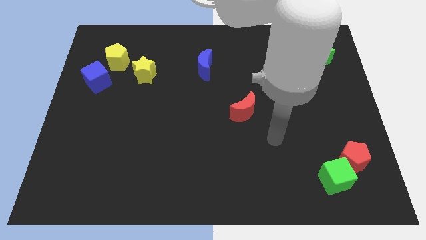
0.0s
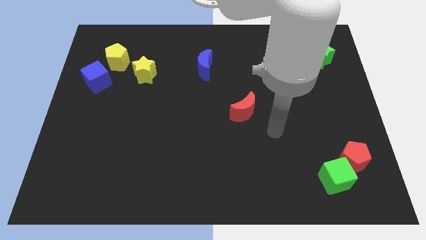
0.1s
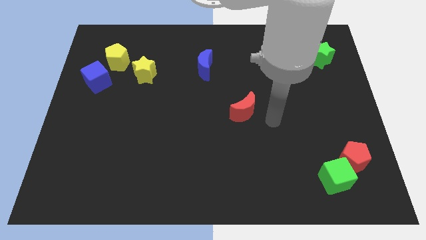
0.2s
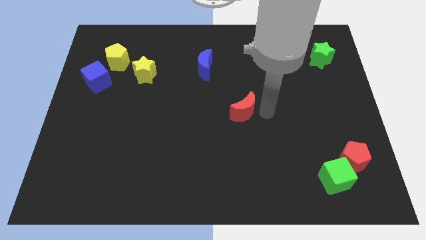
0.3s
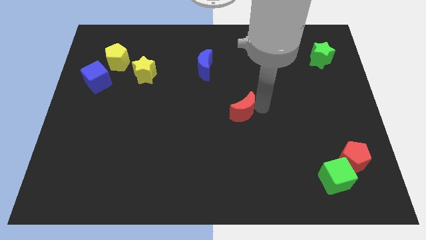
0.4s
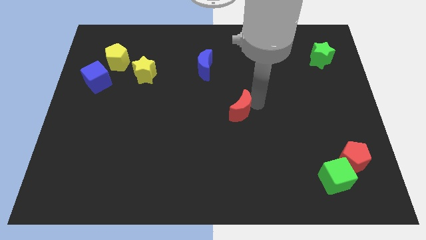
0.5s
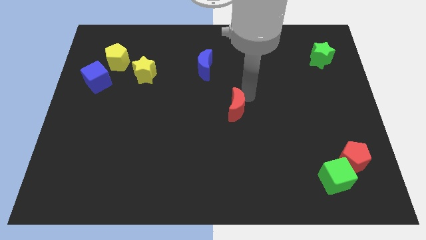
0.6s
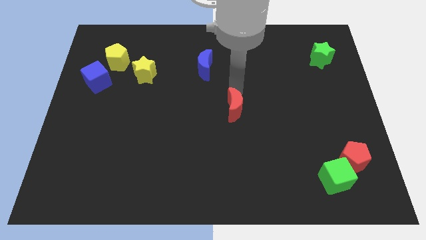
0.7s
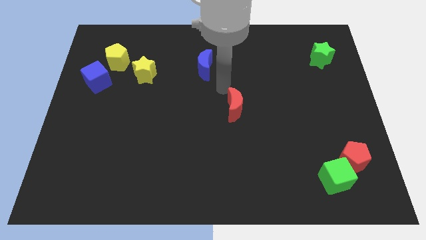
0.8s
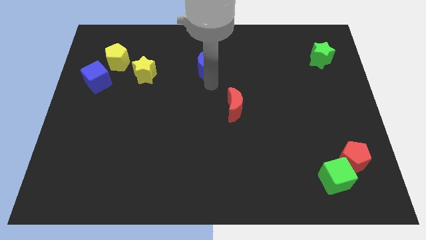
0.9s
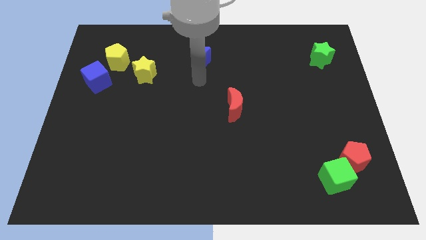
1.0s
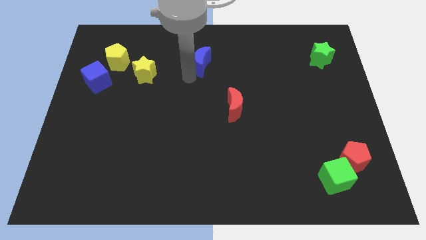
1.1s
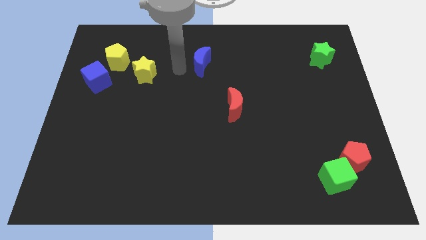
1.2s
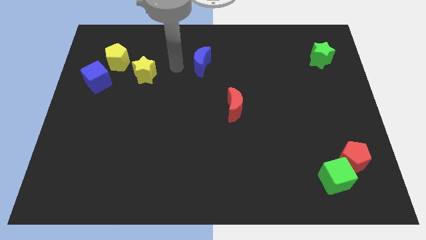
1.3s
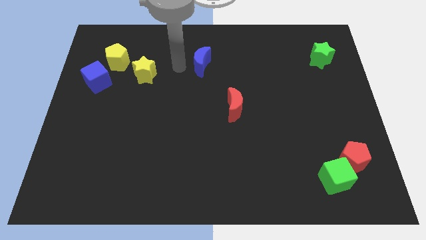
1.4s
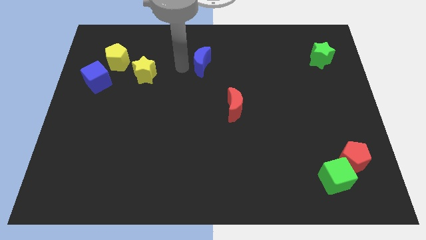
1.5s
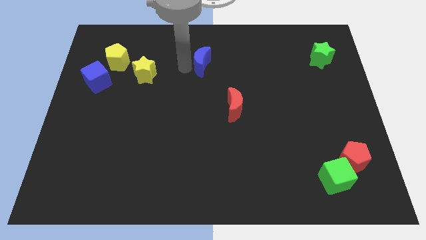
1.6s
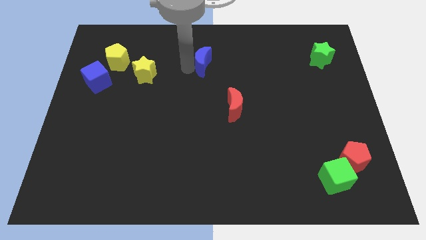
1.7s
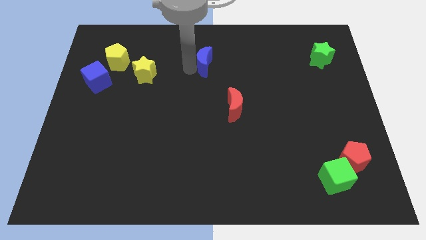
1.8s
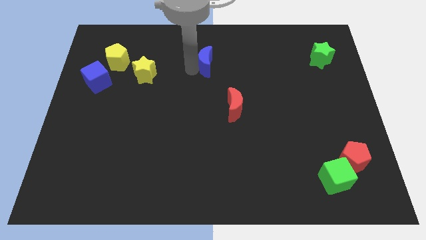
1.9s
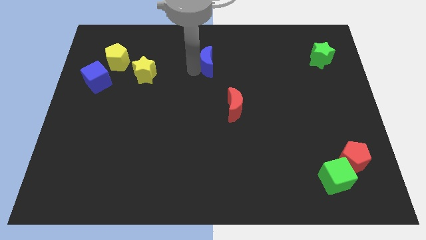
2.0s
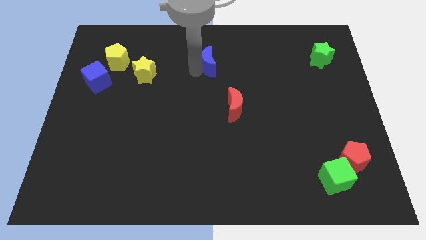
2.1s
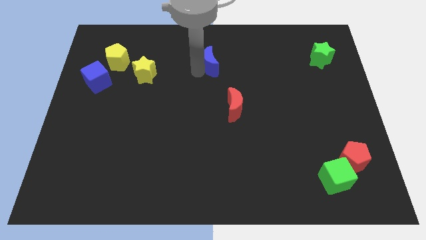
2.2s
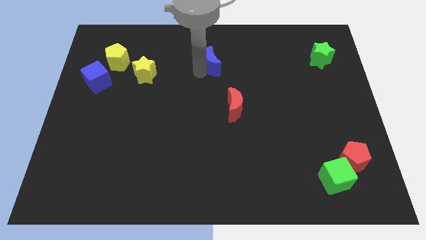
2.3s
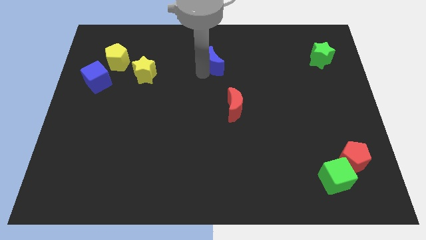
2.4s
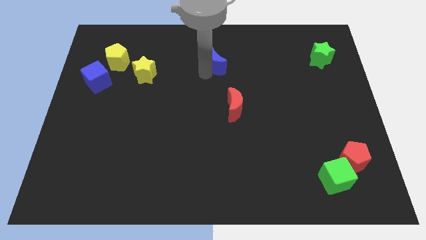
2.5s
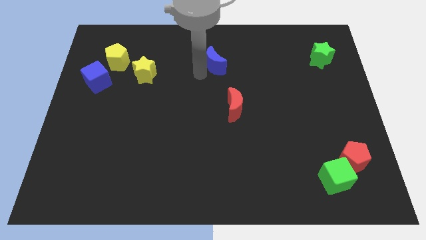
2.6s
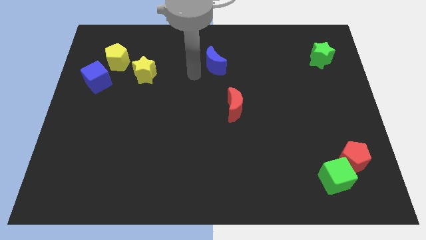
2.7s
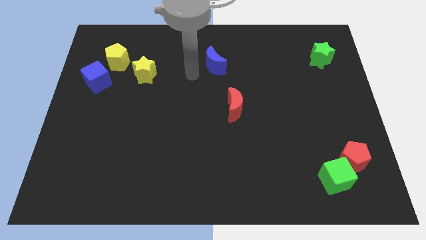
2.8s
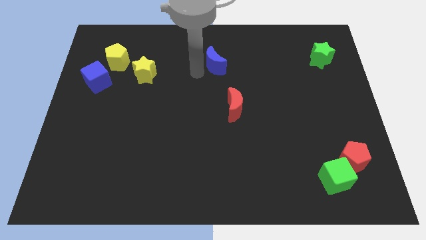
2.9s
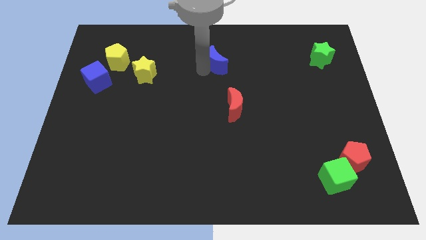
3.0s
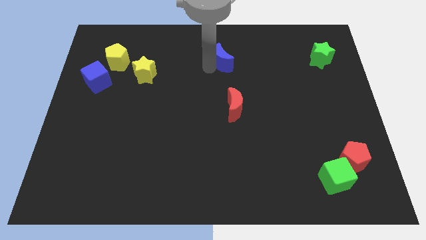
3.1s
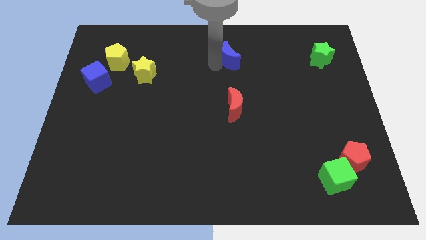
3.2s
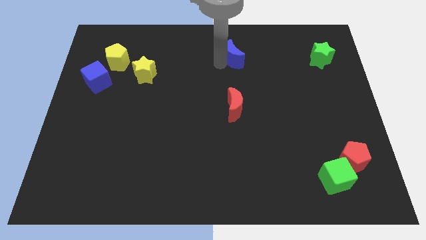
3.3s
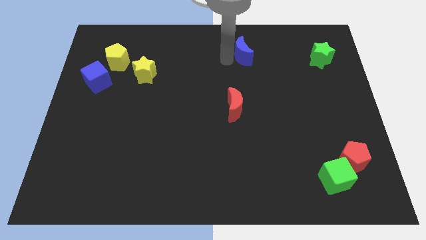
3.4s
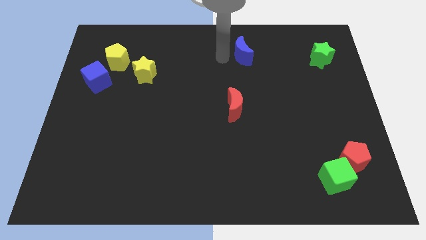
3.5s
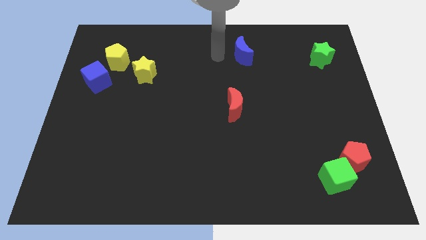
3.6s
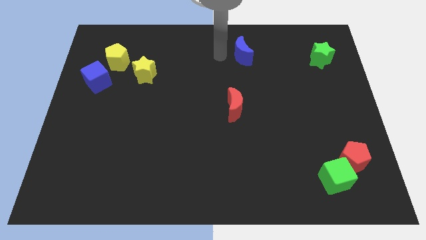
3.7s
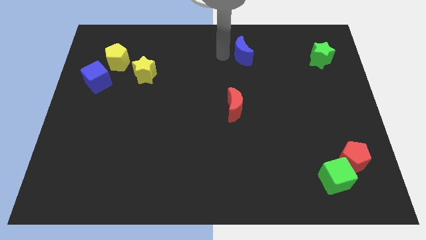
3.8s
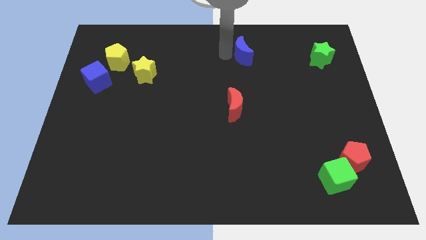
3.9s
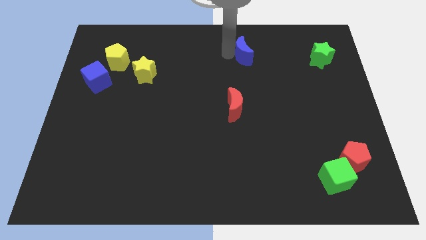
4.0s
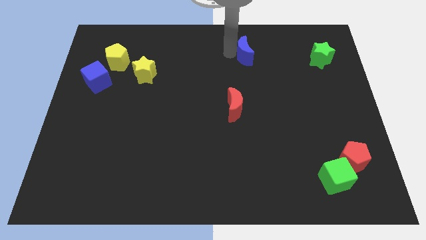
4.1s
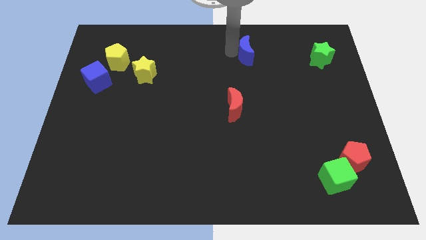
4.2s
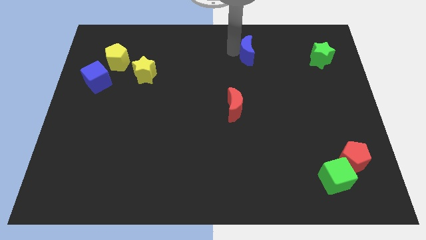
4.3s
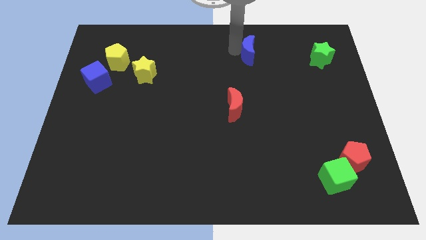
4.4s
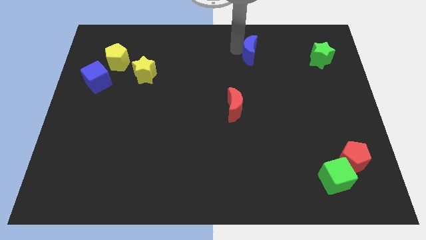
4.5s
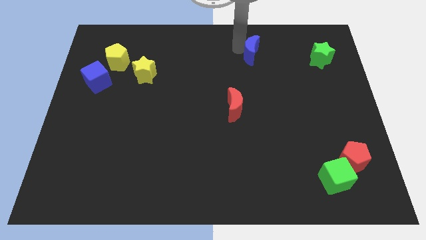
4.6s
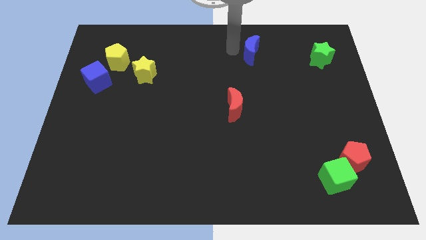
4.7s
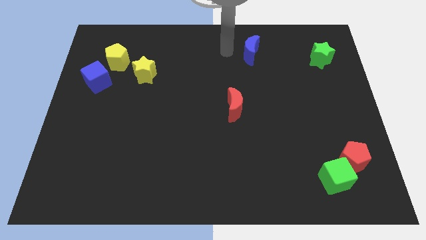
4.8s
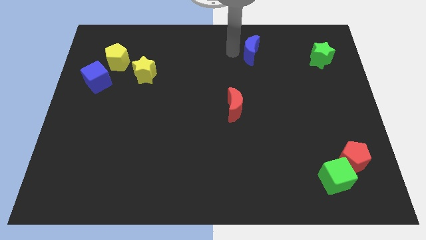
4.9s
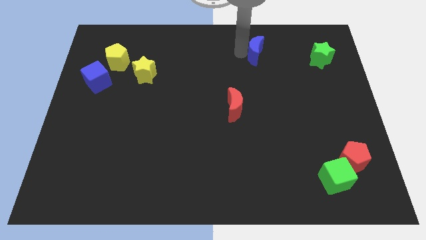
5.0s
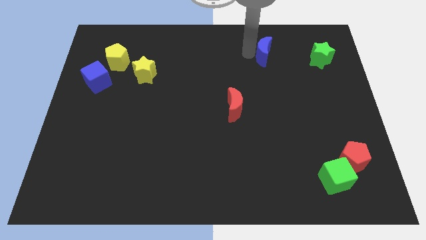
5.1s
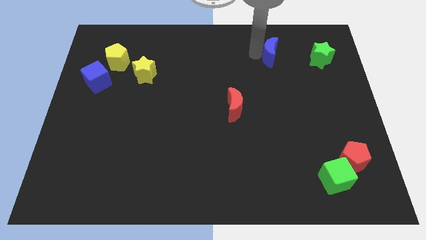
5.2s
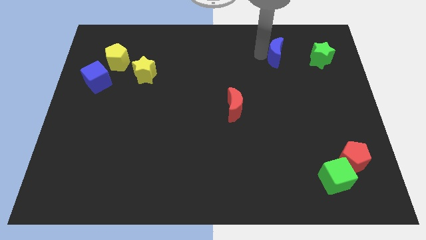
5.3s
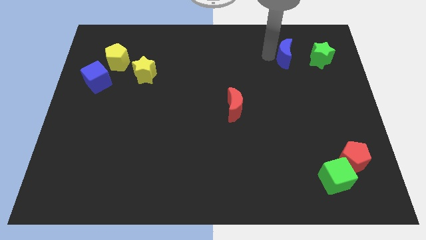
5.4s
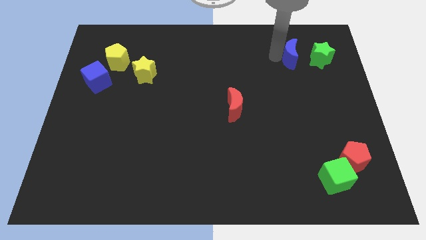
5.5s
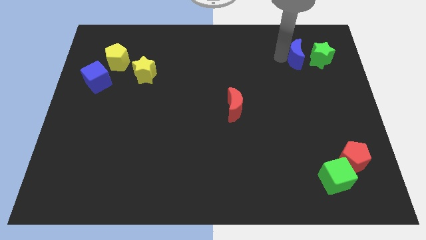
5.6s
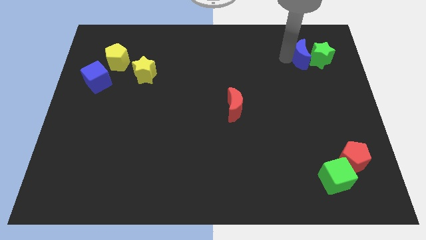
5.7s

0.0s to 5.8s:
put the blue moon to the green star

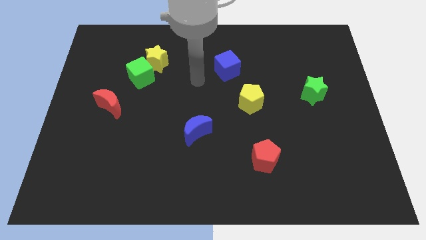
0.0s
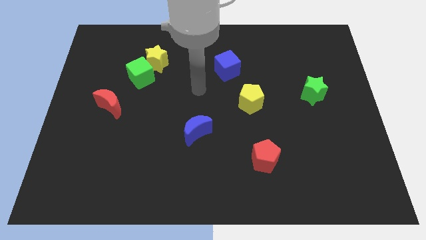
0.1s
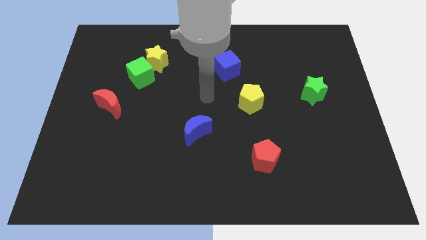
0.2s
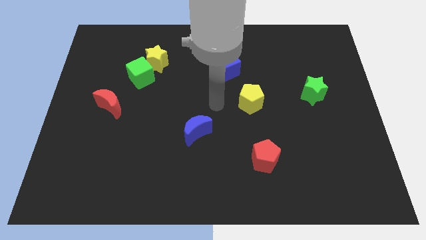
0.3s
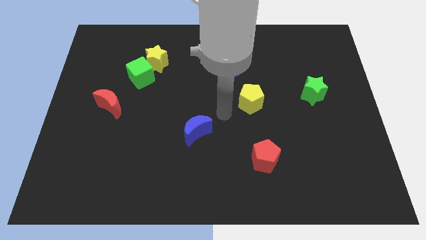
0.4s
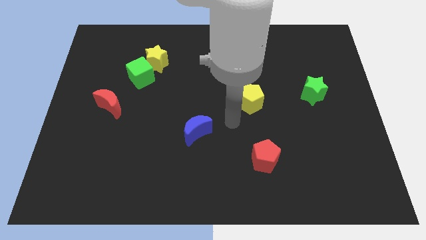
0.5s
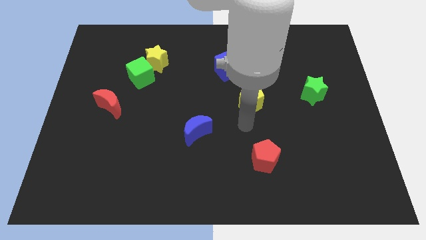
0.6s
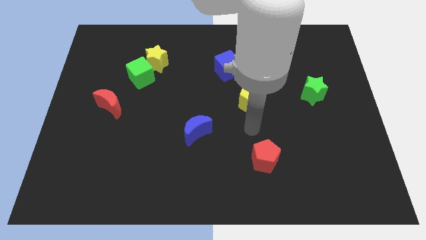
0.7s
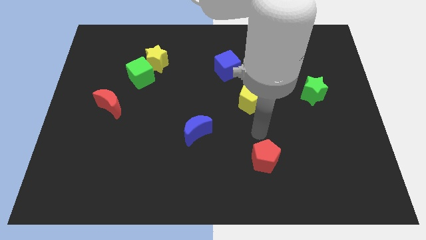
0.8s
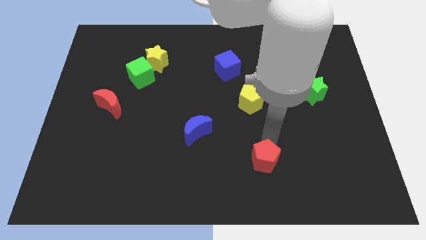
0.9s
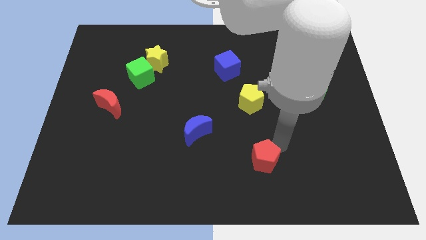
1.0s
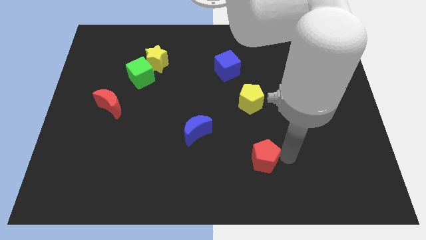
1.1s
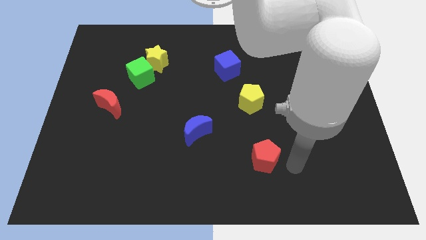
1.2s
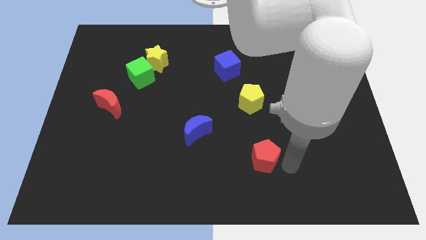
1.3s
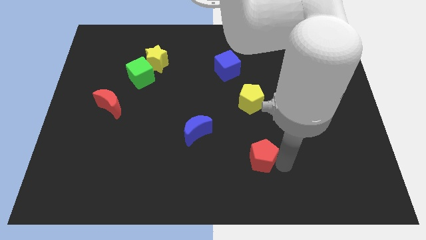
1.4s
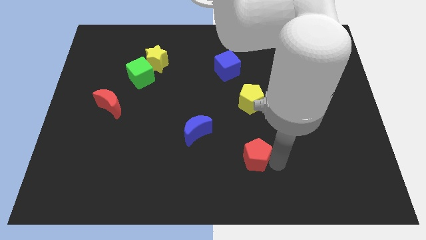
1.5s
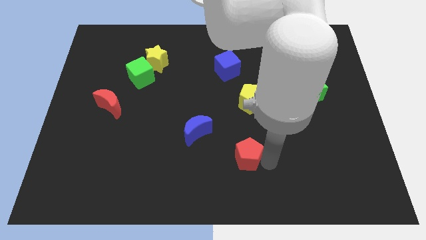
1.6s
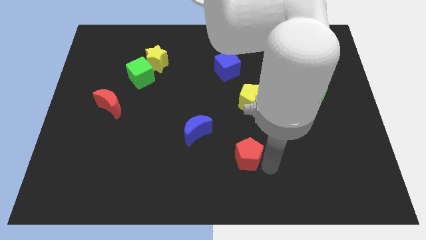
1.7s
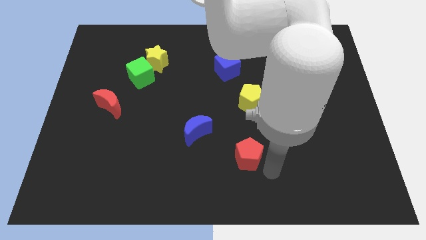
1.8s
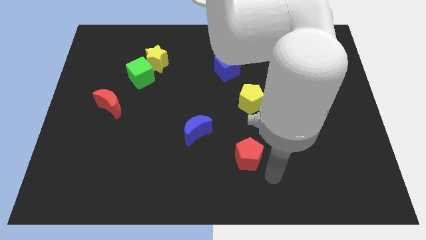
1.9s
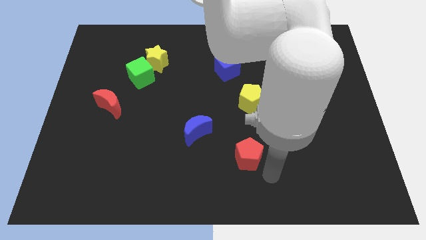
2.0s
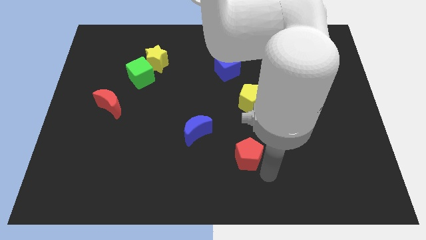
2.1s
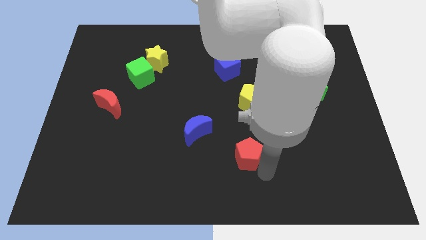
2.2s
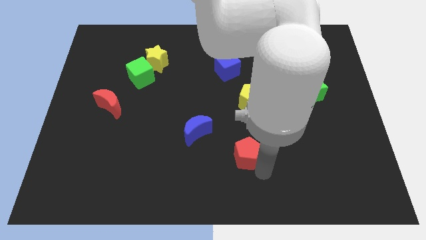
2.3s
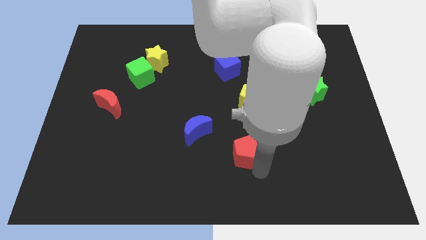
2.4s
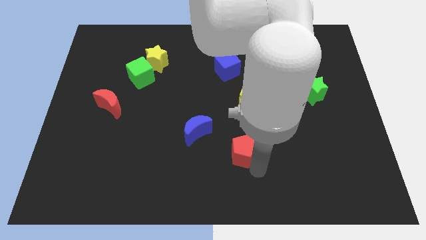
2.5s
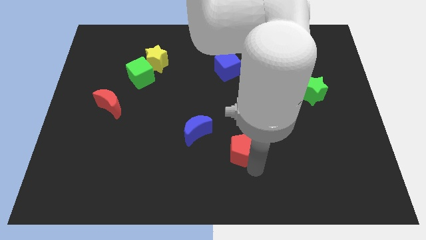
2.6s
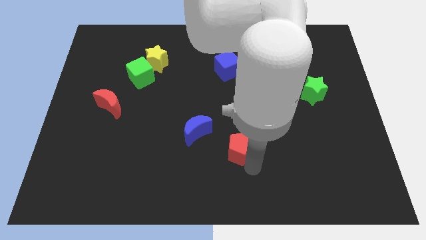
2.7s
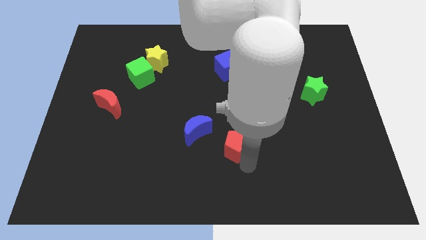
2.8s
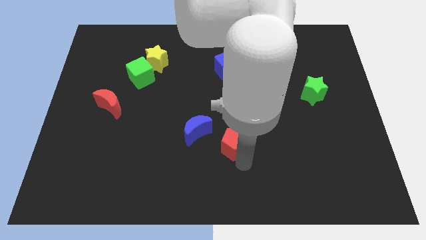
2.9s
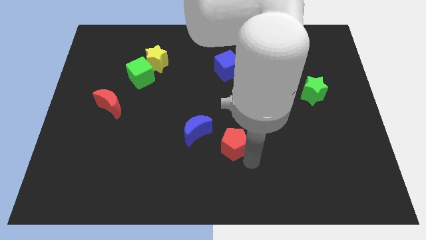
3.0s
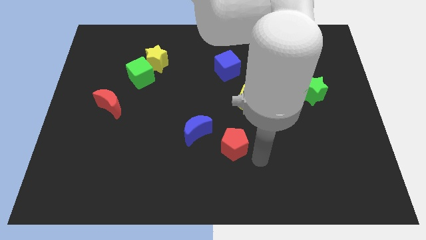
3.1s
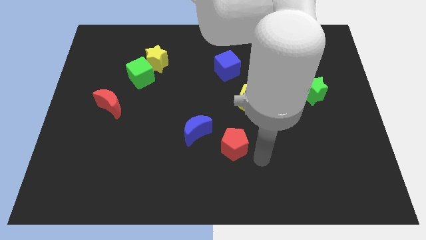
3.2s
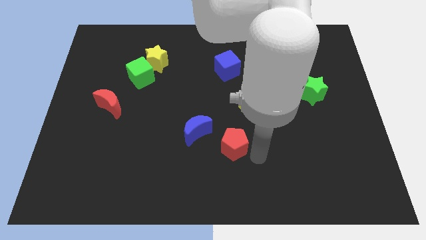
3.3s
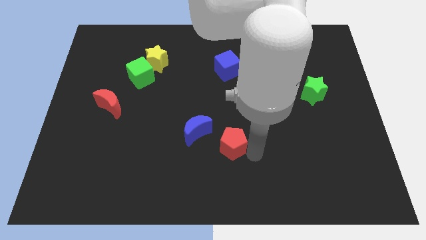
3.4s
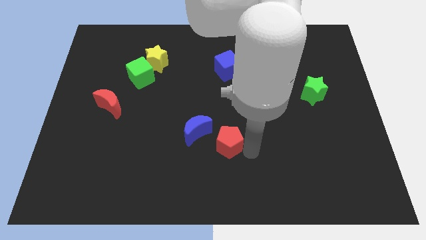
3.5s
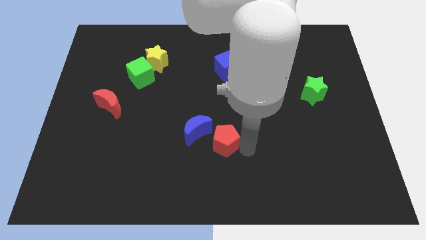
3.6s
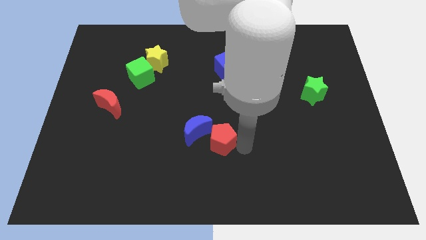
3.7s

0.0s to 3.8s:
push the red pentagon close to the blue moon
